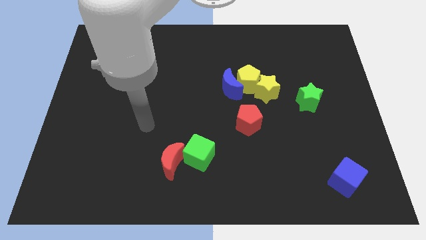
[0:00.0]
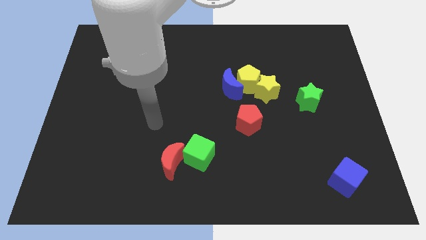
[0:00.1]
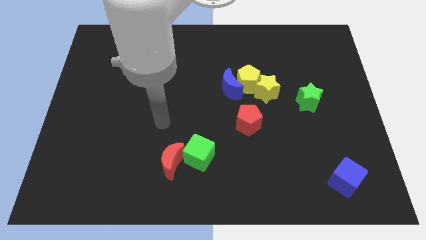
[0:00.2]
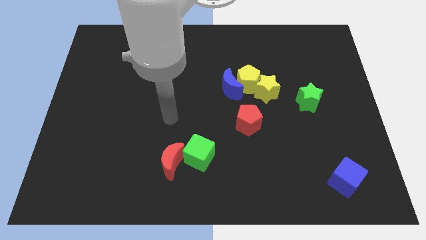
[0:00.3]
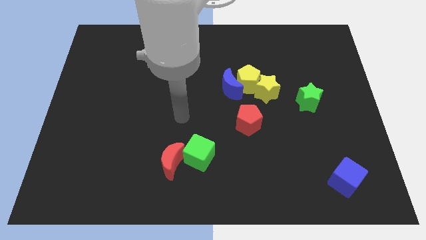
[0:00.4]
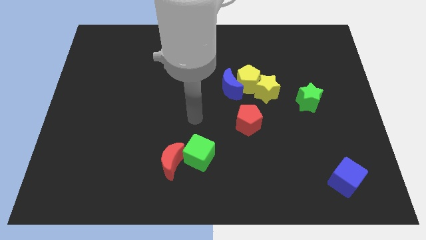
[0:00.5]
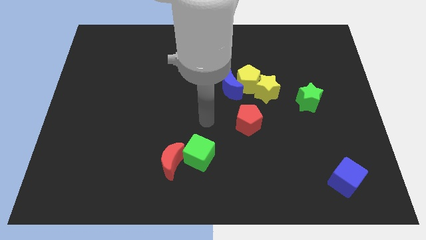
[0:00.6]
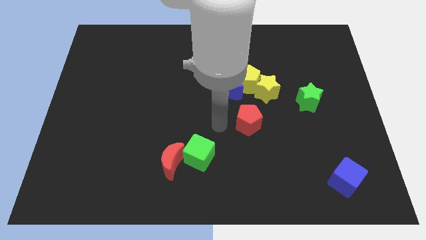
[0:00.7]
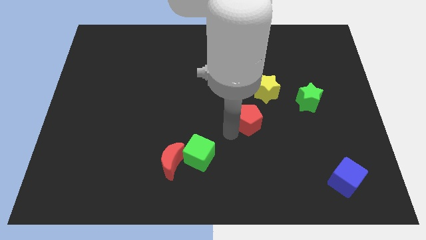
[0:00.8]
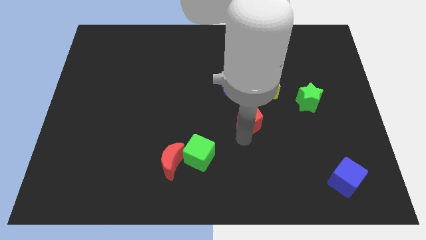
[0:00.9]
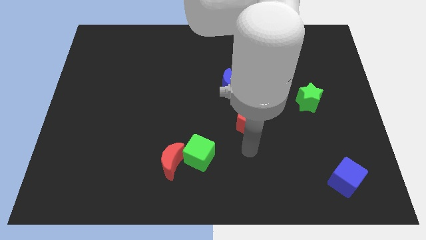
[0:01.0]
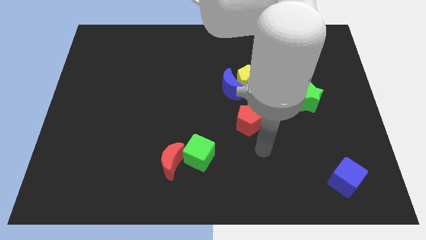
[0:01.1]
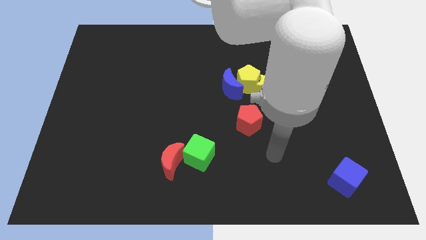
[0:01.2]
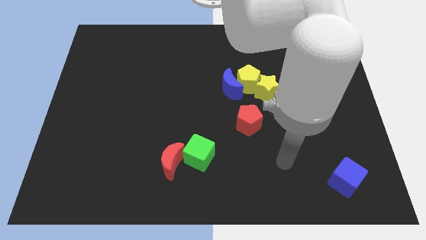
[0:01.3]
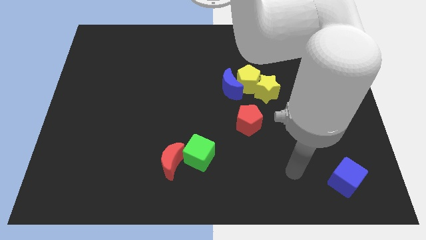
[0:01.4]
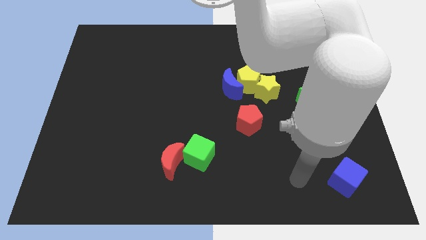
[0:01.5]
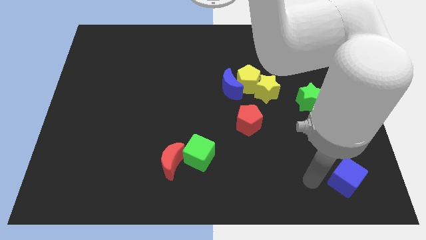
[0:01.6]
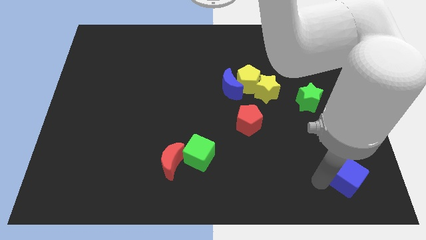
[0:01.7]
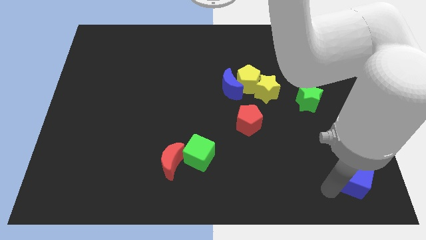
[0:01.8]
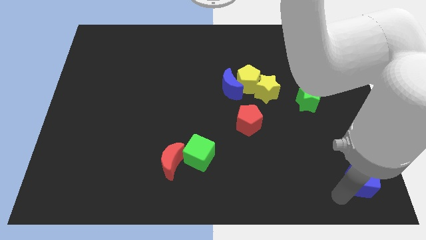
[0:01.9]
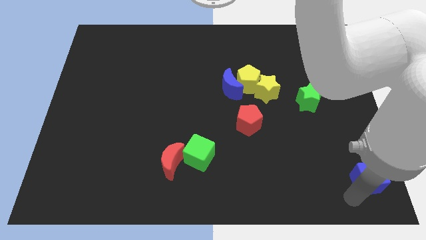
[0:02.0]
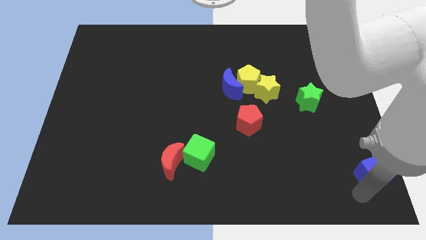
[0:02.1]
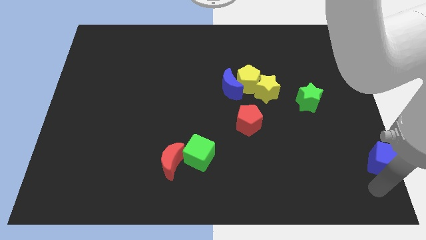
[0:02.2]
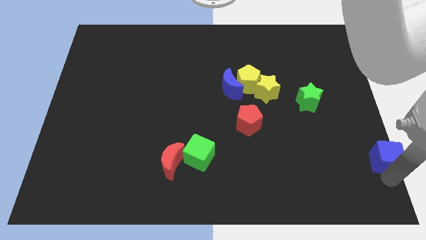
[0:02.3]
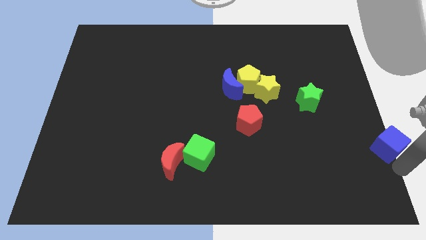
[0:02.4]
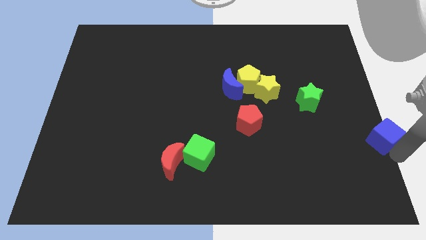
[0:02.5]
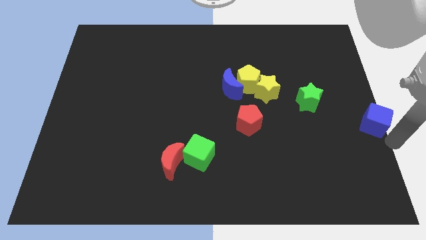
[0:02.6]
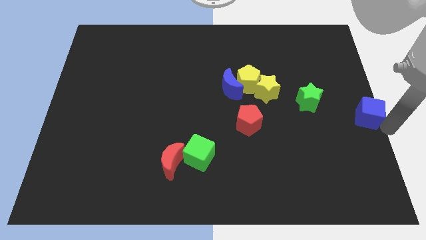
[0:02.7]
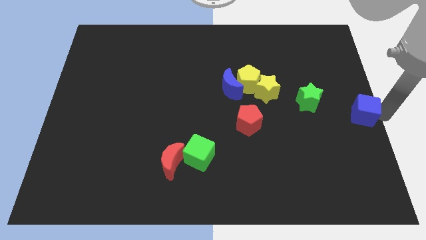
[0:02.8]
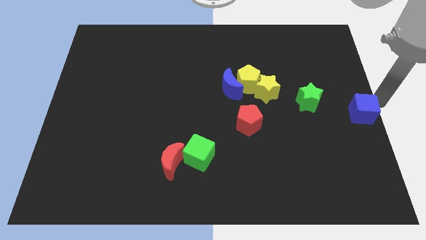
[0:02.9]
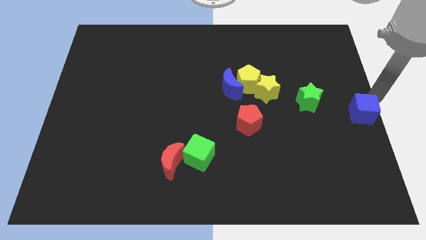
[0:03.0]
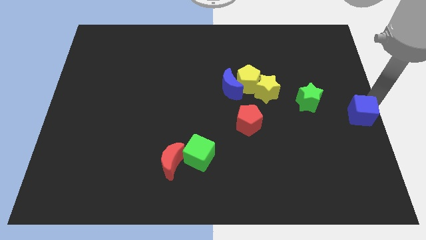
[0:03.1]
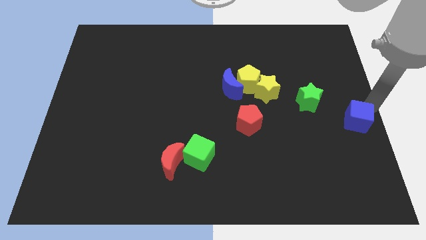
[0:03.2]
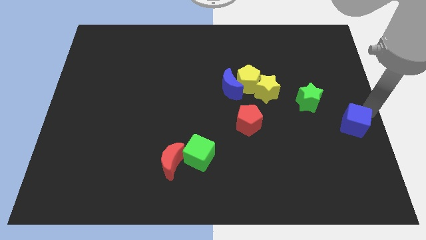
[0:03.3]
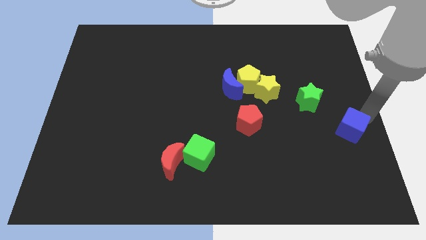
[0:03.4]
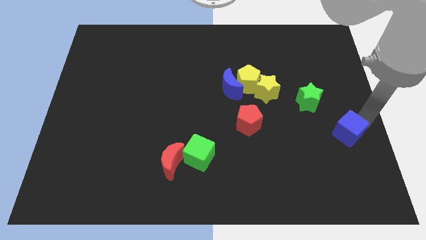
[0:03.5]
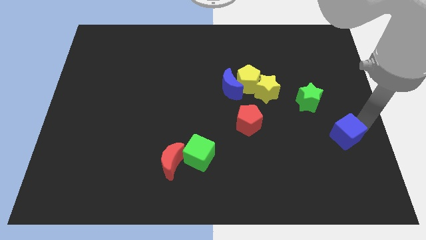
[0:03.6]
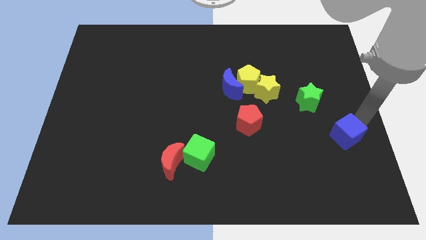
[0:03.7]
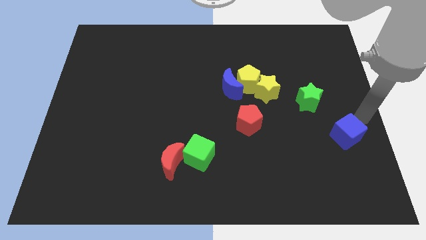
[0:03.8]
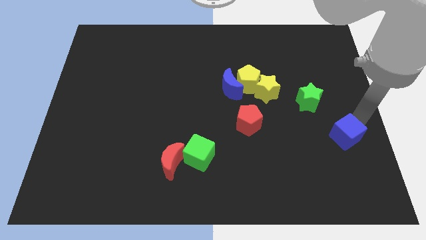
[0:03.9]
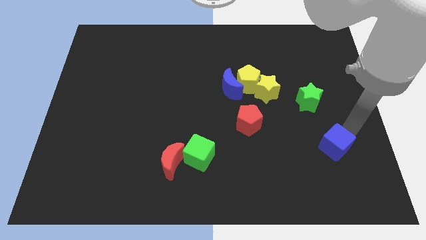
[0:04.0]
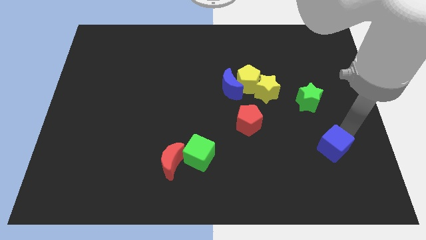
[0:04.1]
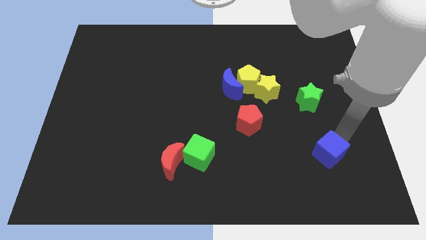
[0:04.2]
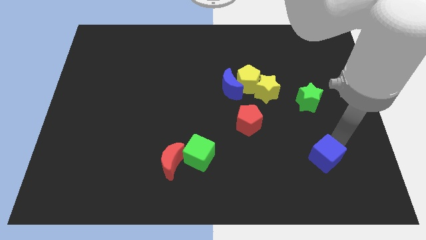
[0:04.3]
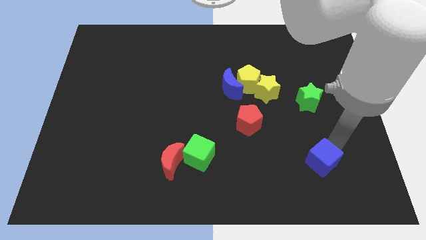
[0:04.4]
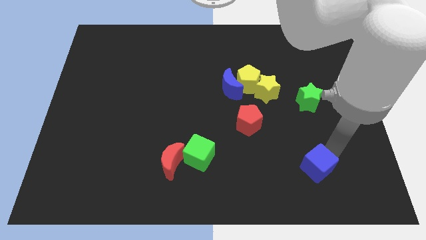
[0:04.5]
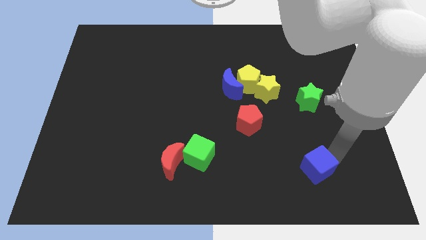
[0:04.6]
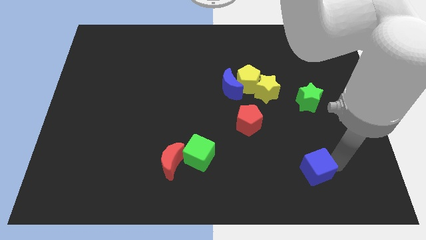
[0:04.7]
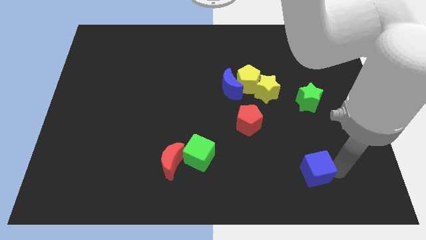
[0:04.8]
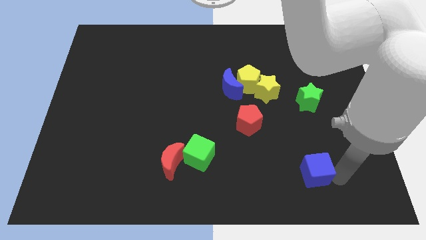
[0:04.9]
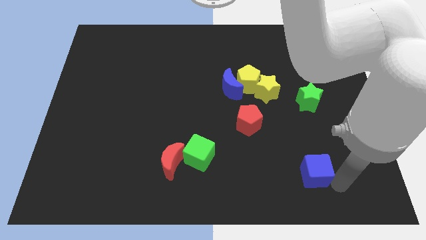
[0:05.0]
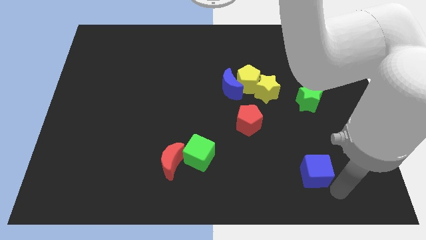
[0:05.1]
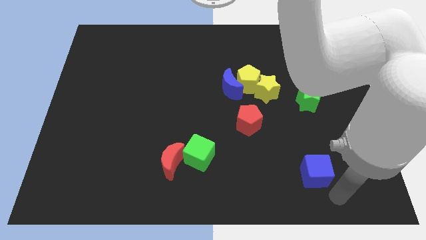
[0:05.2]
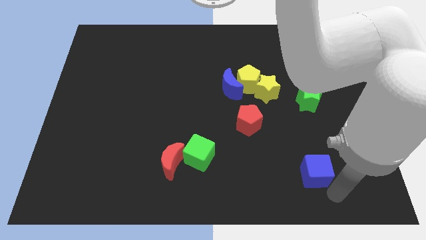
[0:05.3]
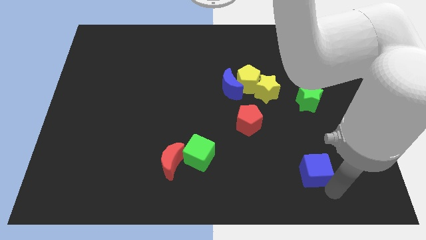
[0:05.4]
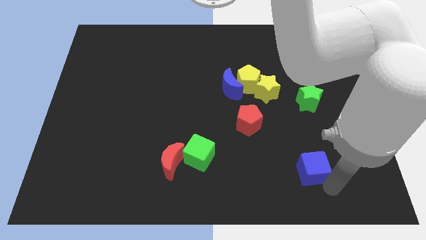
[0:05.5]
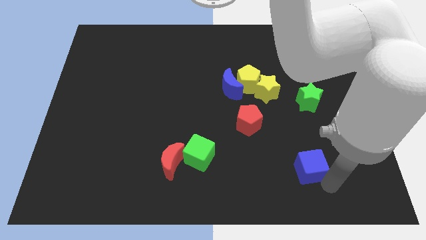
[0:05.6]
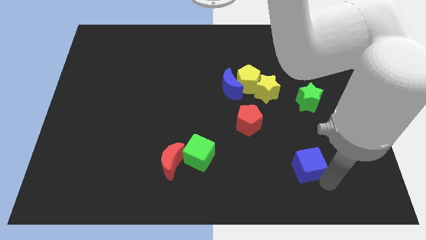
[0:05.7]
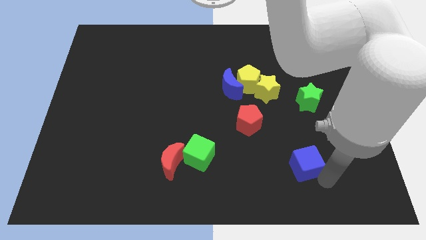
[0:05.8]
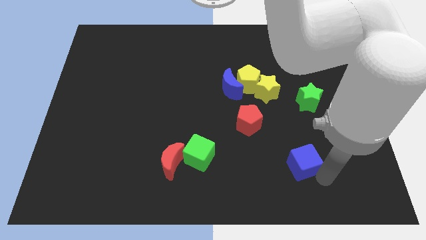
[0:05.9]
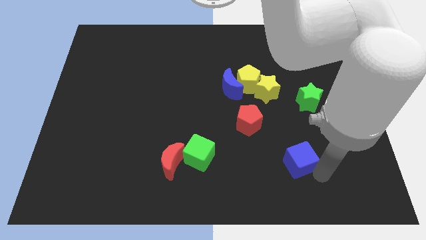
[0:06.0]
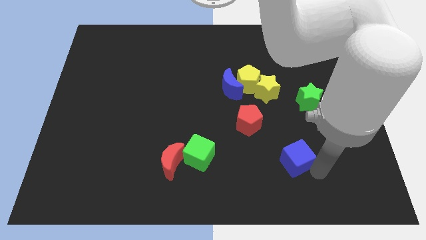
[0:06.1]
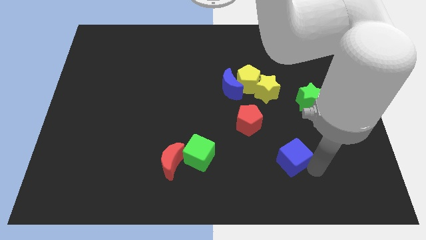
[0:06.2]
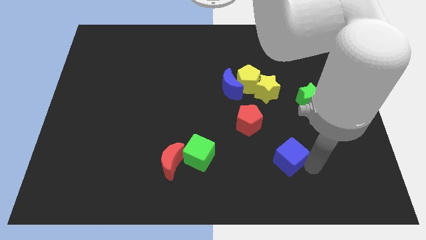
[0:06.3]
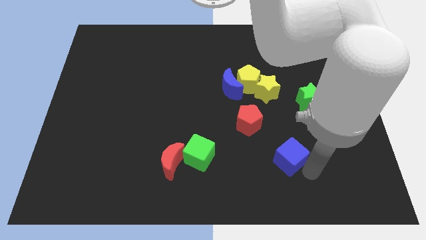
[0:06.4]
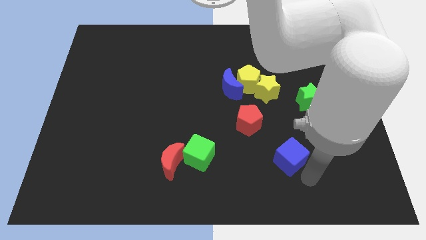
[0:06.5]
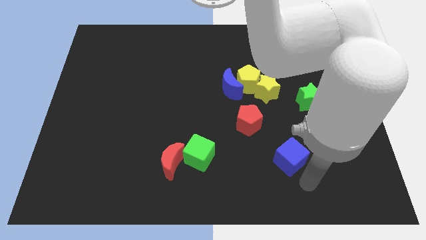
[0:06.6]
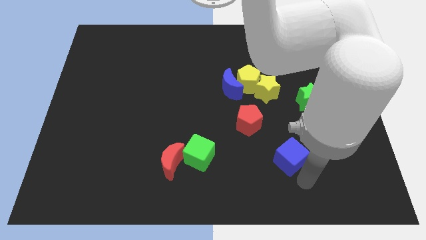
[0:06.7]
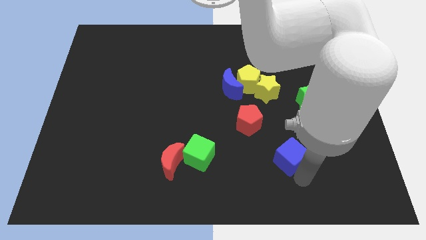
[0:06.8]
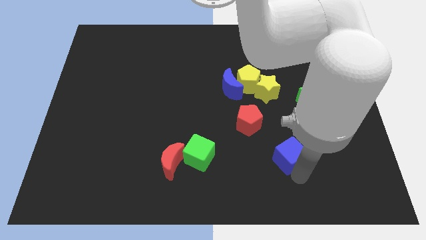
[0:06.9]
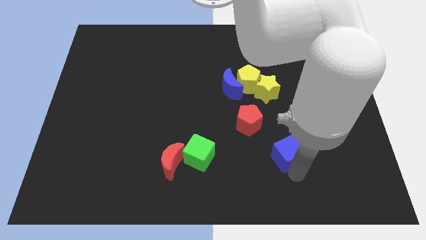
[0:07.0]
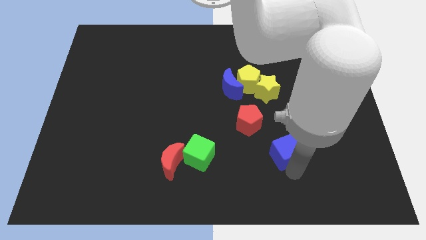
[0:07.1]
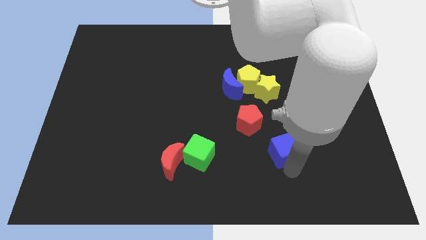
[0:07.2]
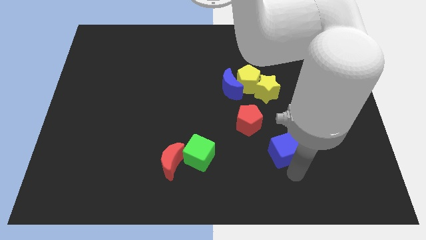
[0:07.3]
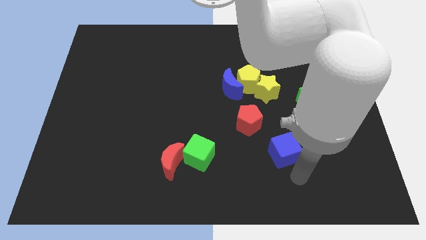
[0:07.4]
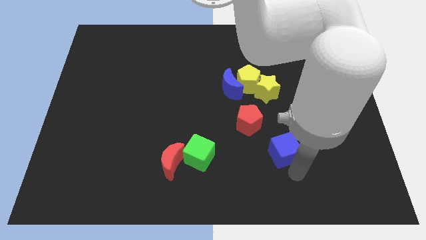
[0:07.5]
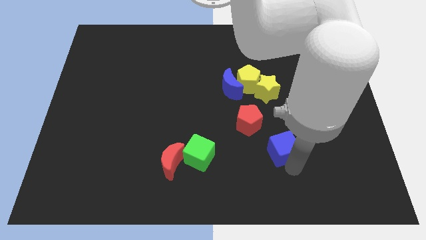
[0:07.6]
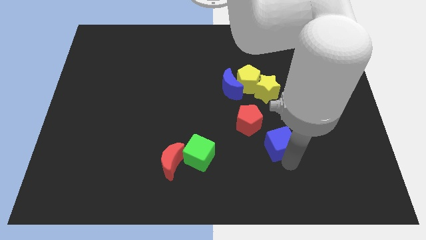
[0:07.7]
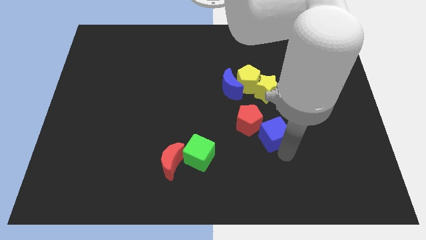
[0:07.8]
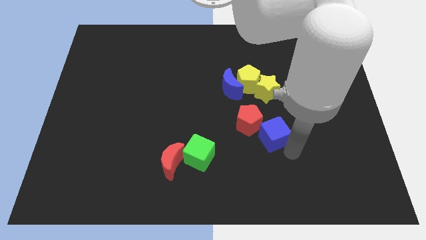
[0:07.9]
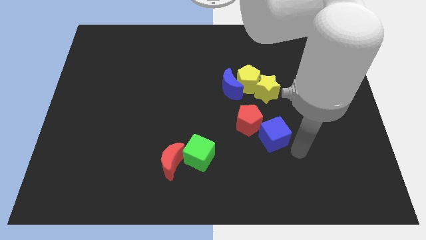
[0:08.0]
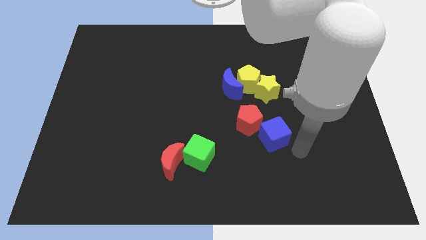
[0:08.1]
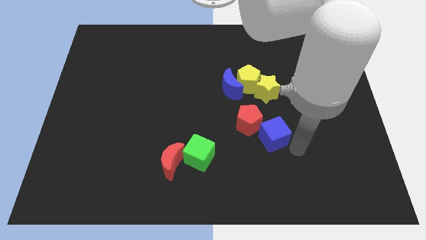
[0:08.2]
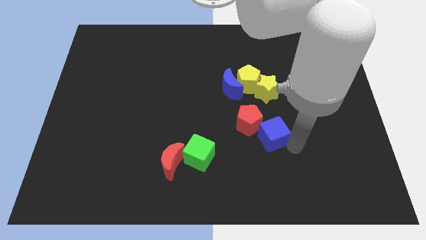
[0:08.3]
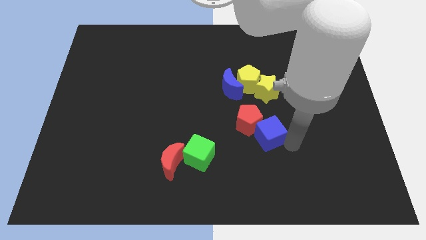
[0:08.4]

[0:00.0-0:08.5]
push the blue cube next to the red pentagon
